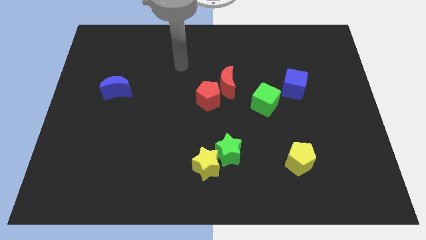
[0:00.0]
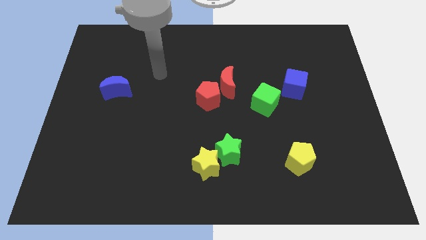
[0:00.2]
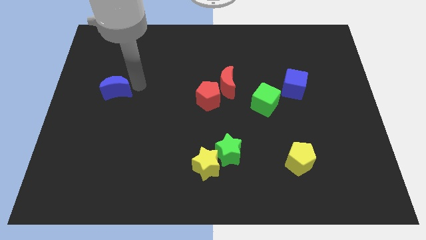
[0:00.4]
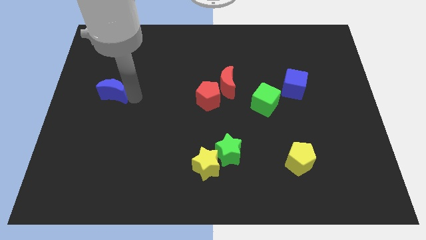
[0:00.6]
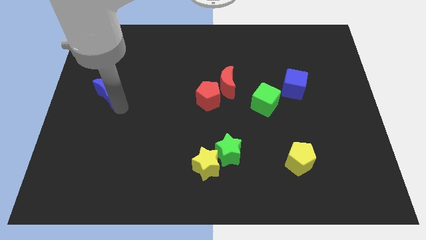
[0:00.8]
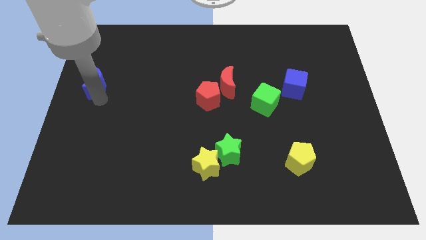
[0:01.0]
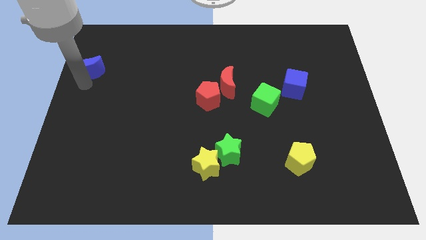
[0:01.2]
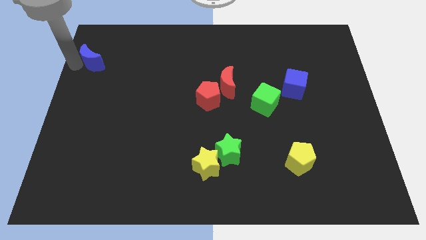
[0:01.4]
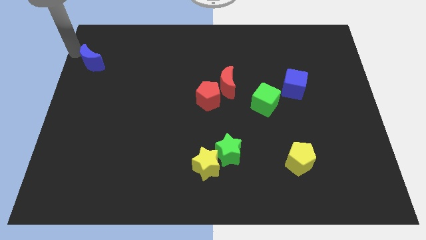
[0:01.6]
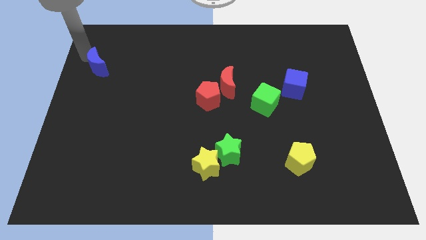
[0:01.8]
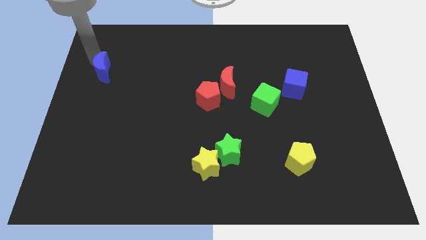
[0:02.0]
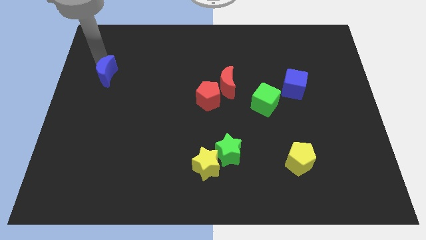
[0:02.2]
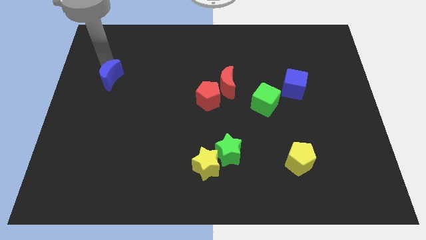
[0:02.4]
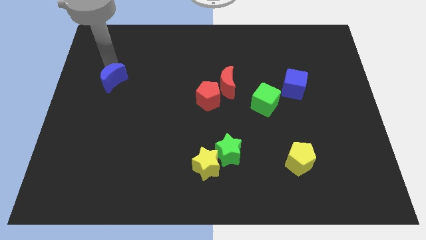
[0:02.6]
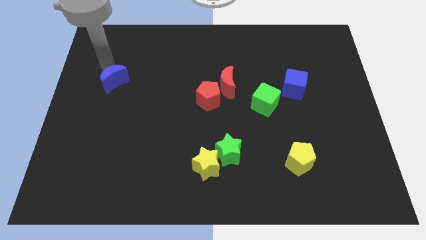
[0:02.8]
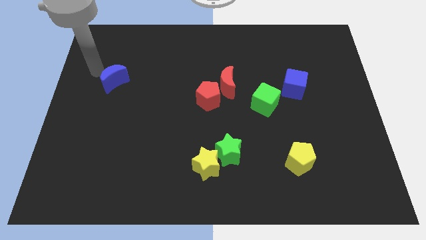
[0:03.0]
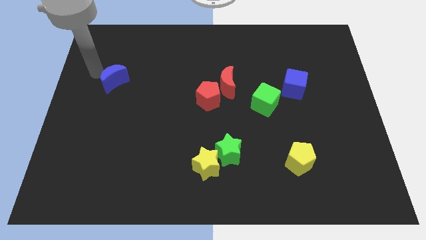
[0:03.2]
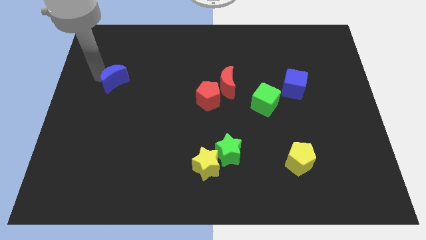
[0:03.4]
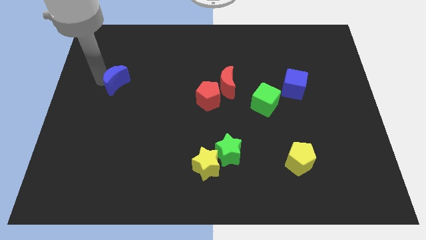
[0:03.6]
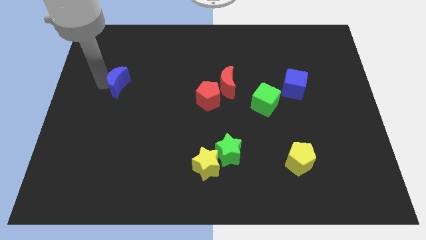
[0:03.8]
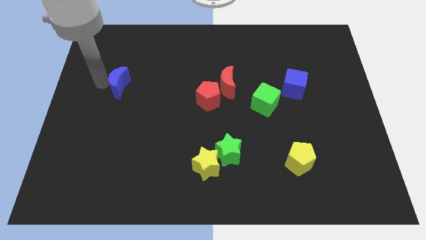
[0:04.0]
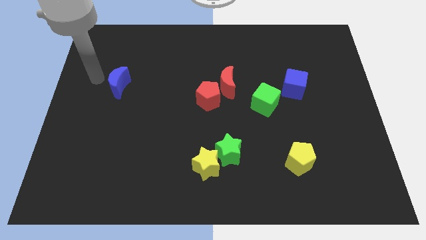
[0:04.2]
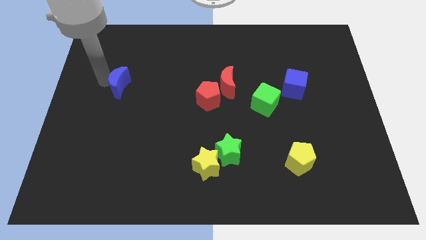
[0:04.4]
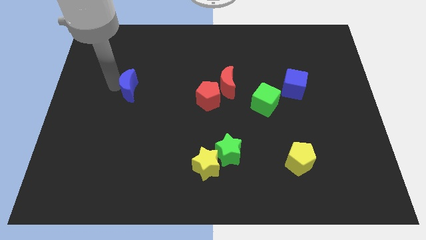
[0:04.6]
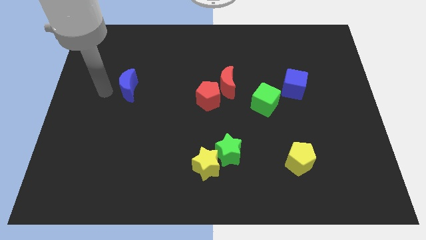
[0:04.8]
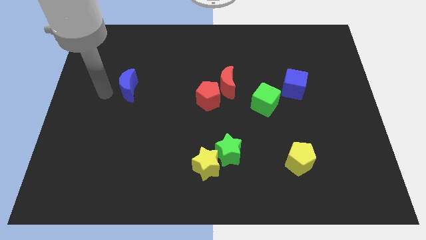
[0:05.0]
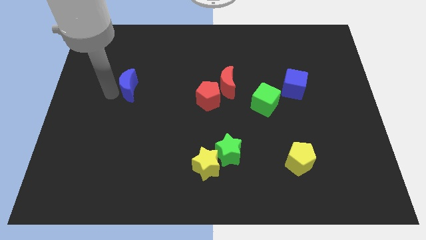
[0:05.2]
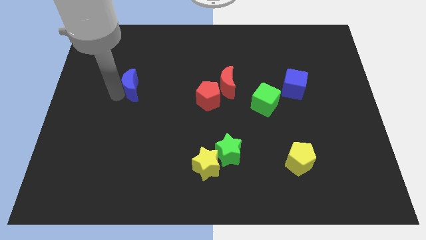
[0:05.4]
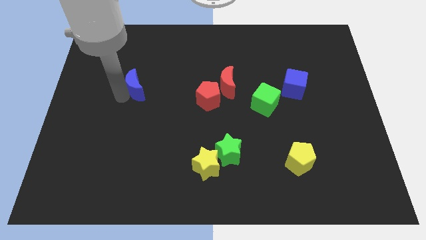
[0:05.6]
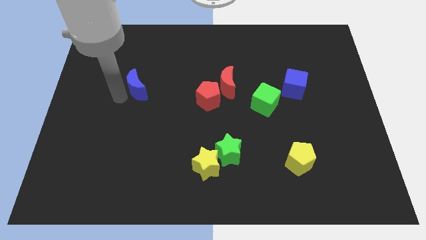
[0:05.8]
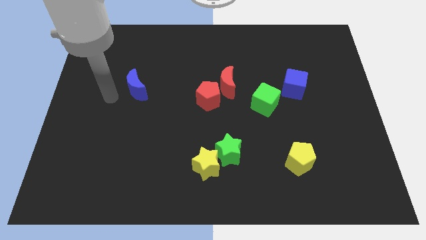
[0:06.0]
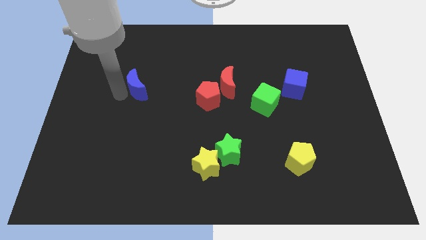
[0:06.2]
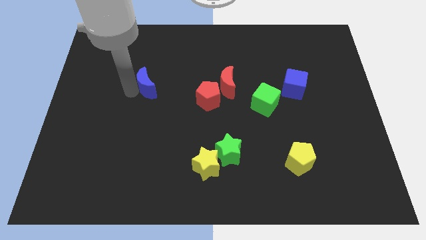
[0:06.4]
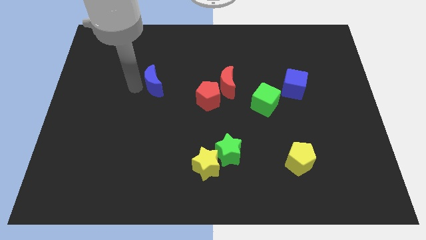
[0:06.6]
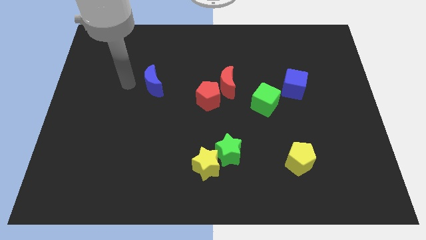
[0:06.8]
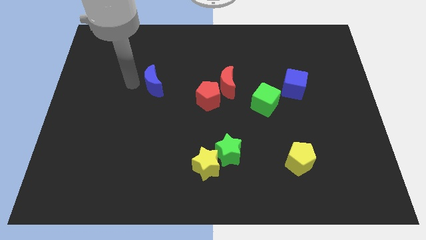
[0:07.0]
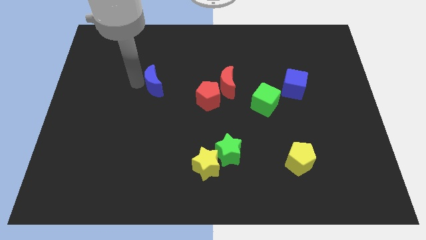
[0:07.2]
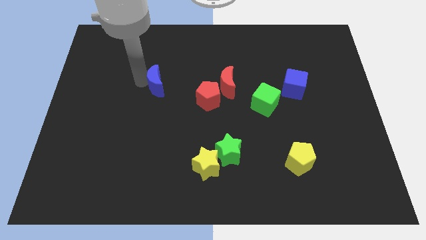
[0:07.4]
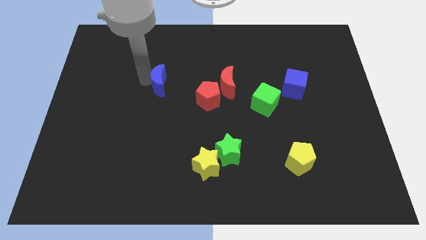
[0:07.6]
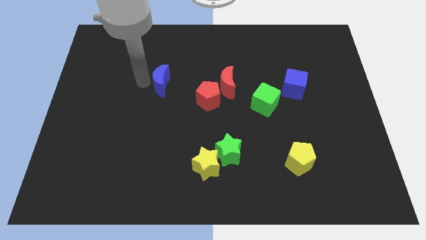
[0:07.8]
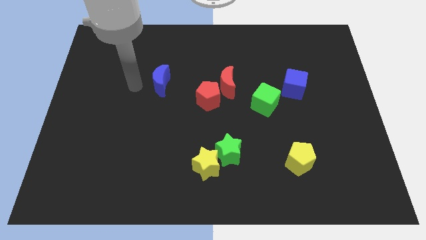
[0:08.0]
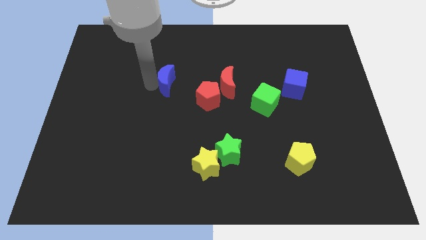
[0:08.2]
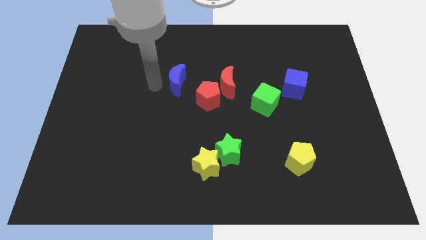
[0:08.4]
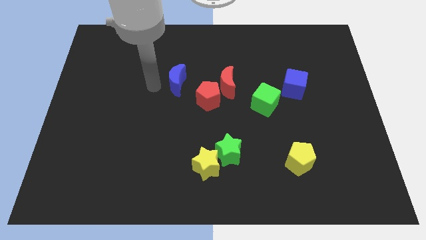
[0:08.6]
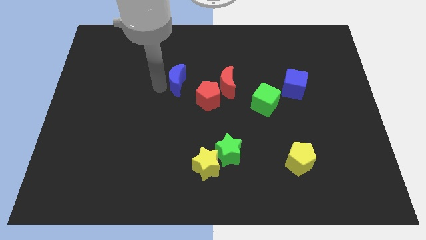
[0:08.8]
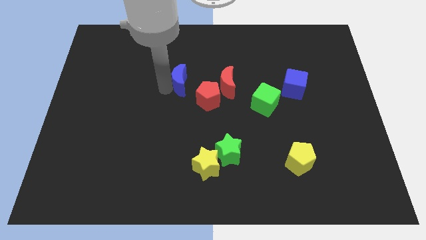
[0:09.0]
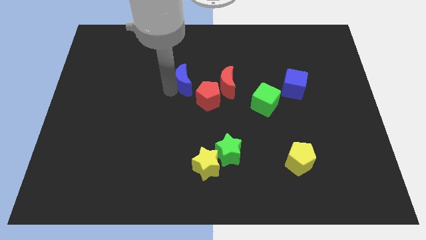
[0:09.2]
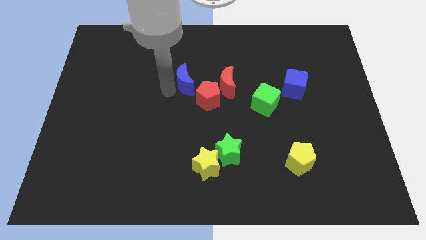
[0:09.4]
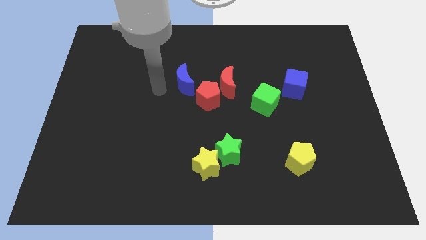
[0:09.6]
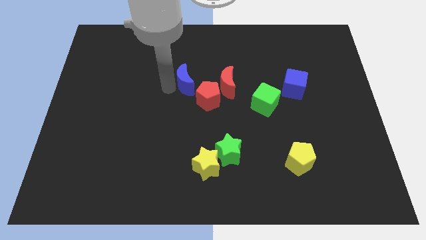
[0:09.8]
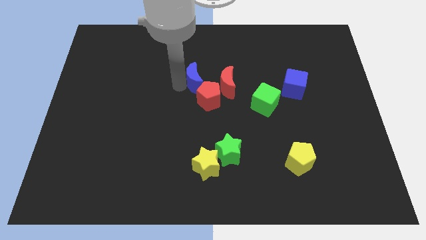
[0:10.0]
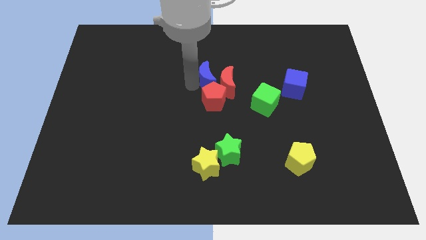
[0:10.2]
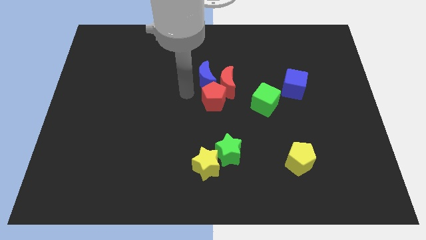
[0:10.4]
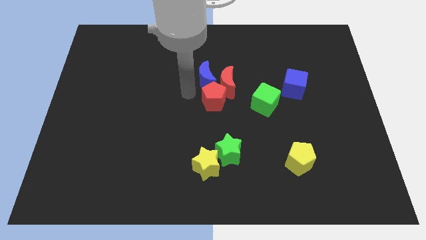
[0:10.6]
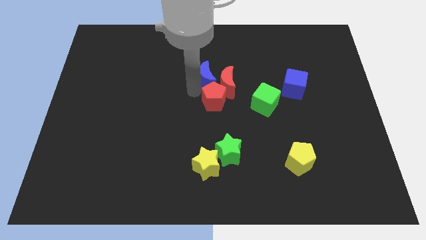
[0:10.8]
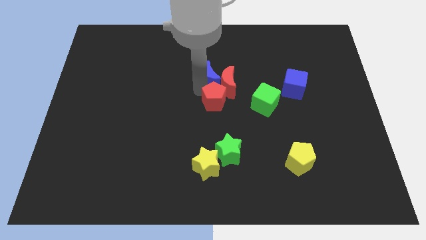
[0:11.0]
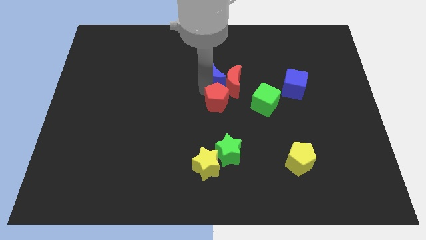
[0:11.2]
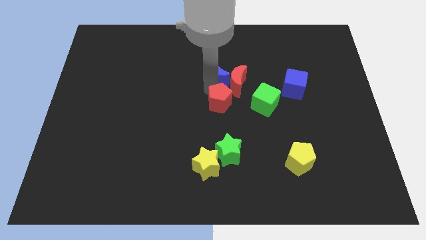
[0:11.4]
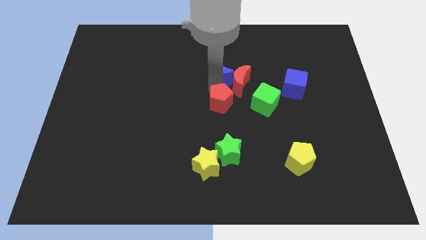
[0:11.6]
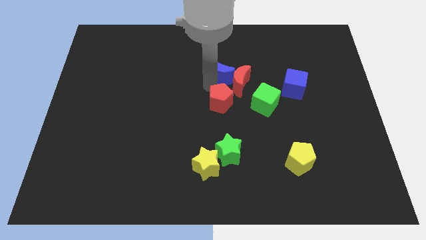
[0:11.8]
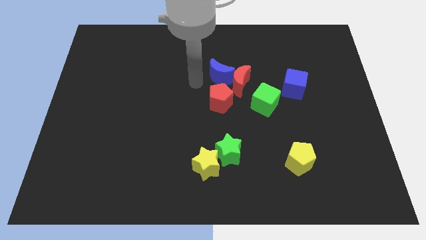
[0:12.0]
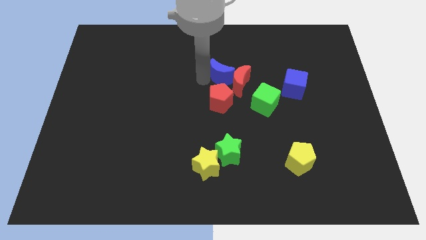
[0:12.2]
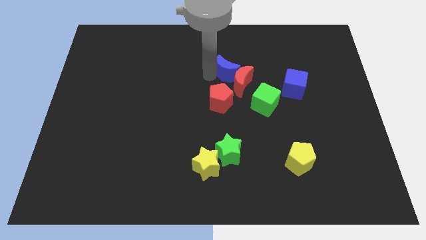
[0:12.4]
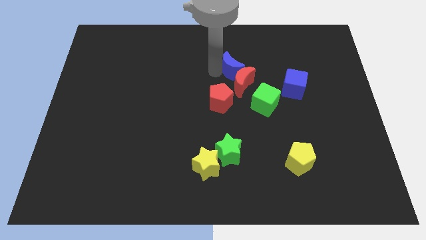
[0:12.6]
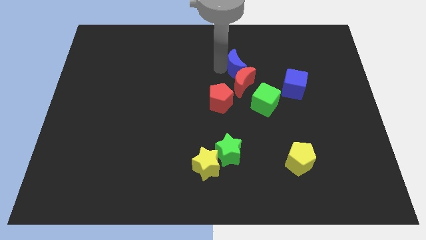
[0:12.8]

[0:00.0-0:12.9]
slide the blue moon diagonally up and to the right of the red moon

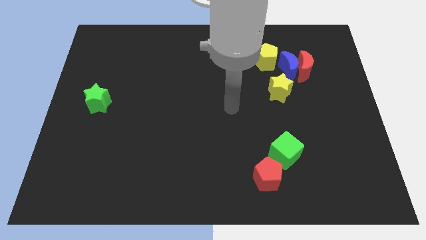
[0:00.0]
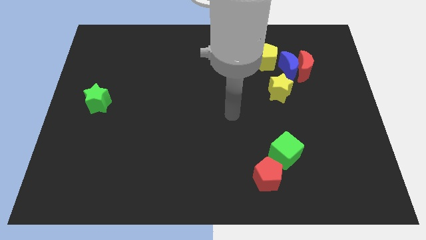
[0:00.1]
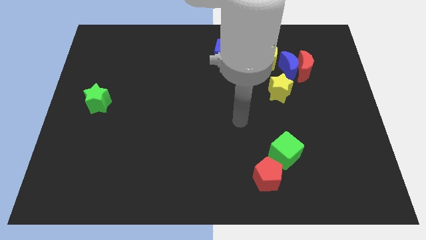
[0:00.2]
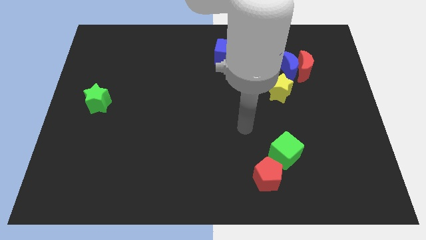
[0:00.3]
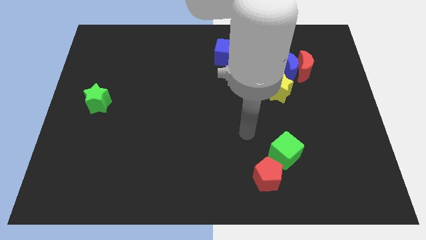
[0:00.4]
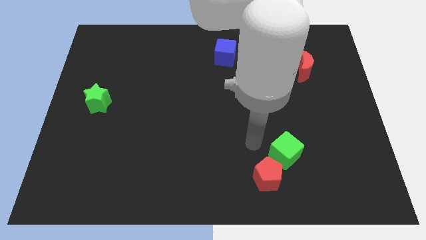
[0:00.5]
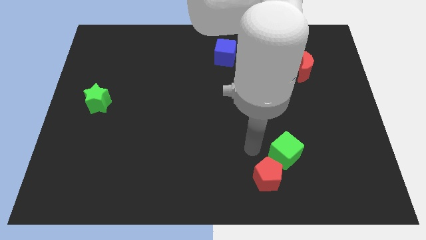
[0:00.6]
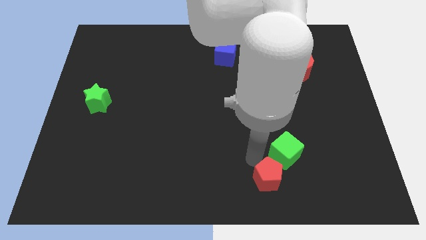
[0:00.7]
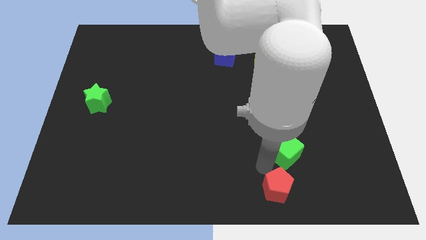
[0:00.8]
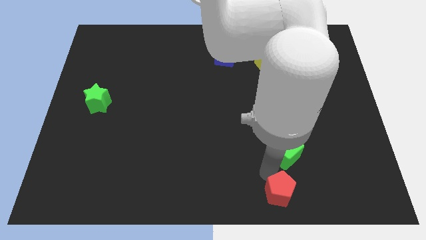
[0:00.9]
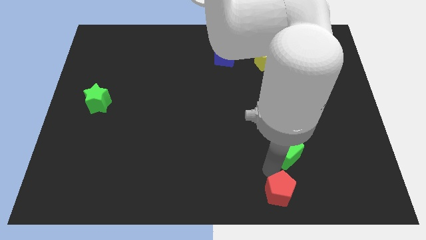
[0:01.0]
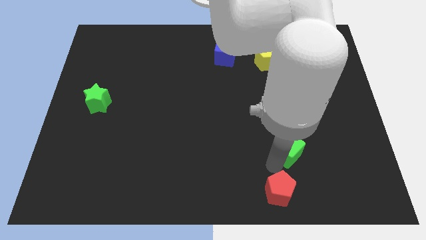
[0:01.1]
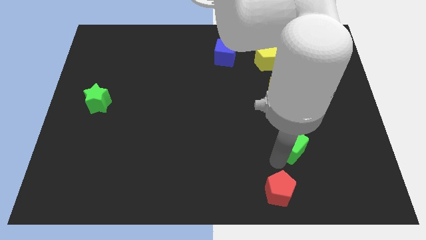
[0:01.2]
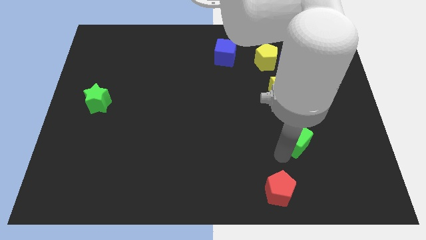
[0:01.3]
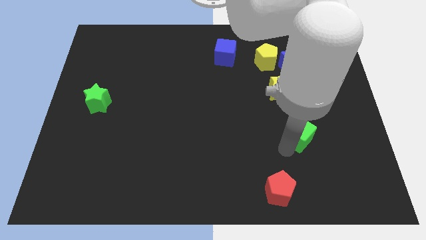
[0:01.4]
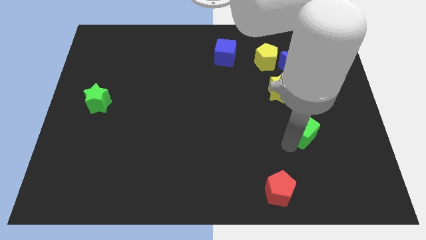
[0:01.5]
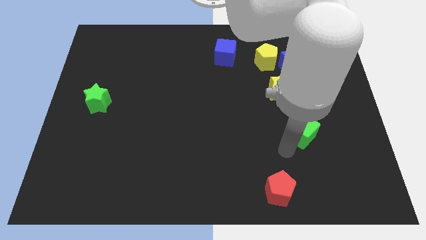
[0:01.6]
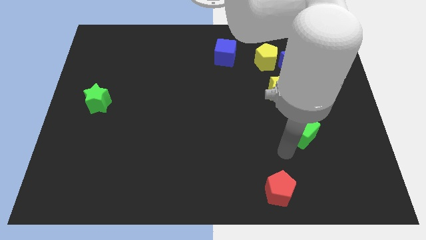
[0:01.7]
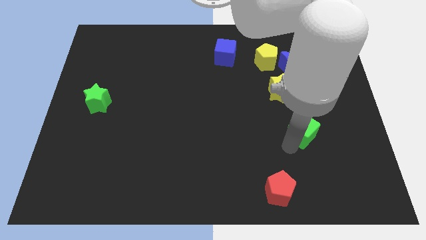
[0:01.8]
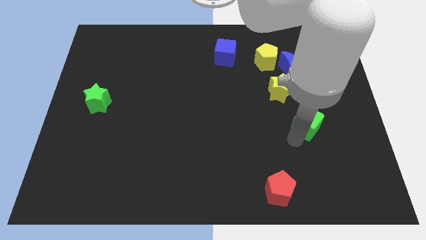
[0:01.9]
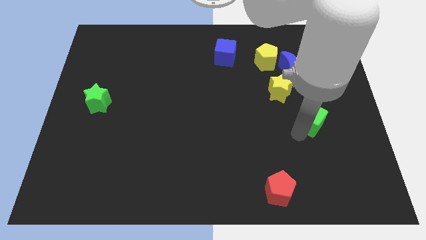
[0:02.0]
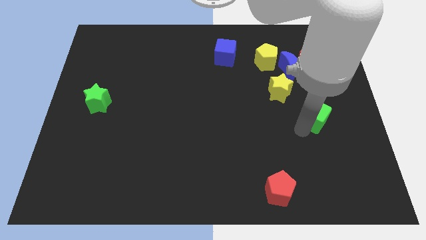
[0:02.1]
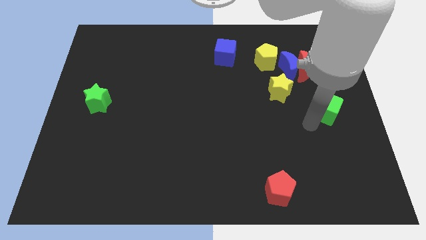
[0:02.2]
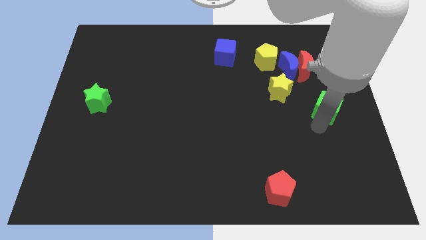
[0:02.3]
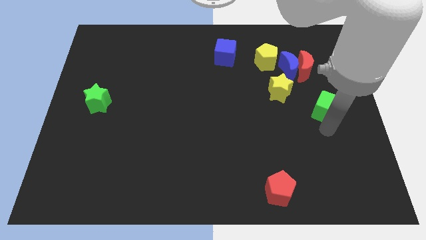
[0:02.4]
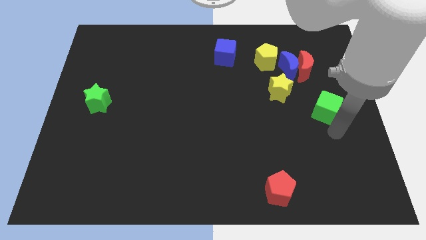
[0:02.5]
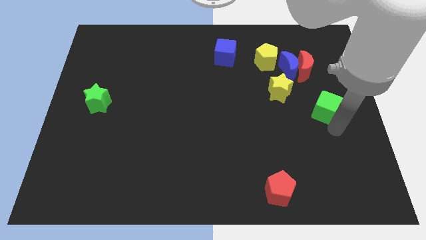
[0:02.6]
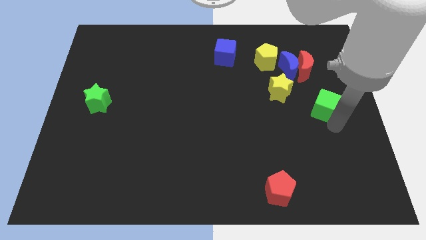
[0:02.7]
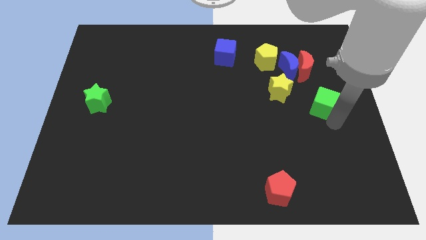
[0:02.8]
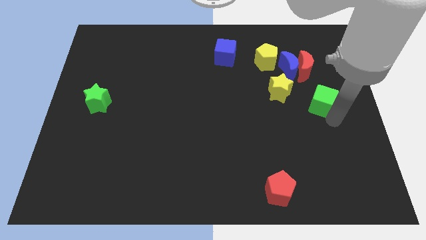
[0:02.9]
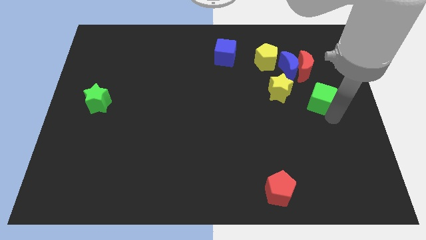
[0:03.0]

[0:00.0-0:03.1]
move the green cube to the bottom right side of the blue moon
